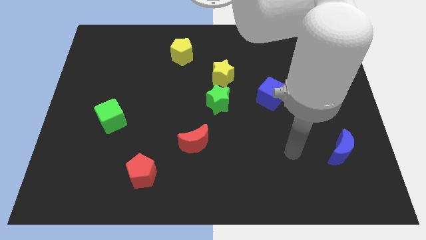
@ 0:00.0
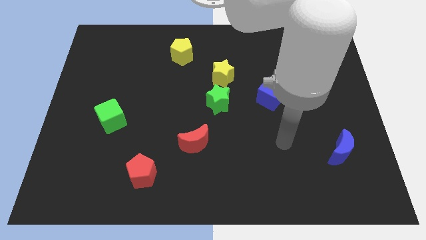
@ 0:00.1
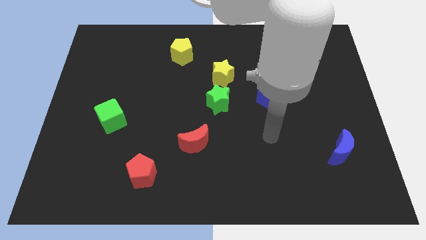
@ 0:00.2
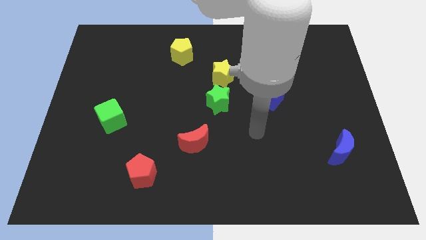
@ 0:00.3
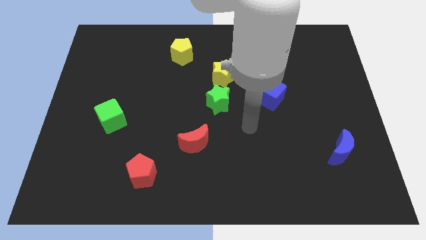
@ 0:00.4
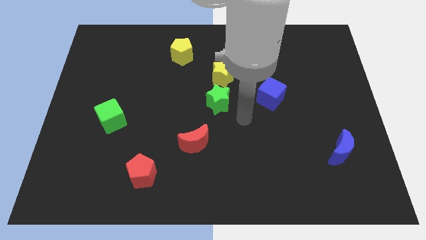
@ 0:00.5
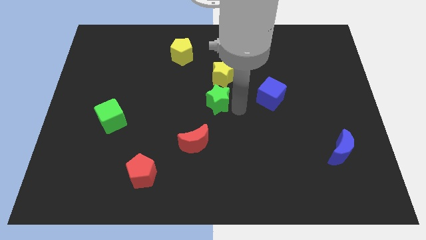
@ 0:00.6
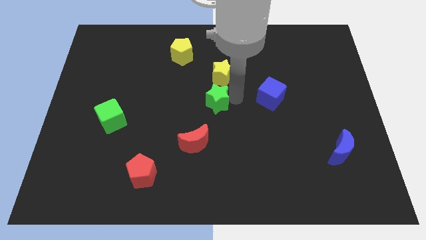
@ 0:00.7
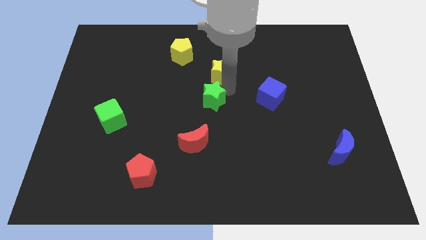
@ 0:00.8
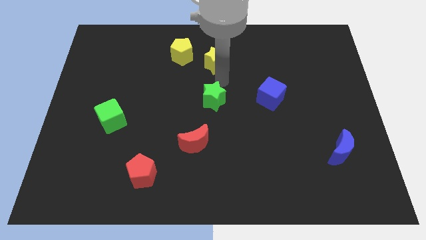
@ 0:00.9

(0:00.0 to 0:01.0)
move the green star away from the yellow star

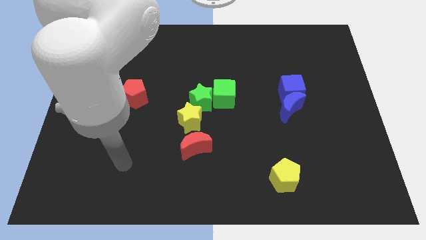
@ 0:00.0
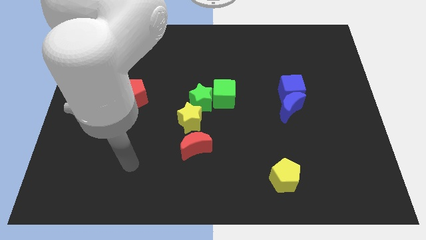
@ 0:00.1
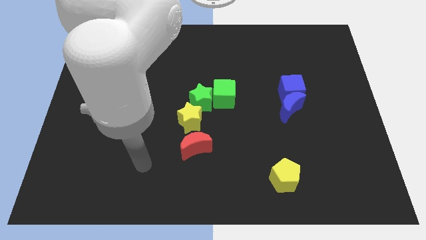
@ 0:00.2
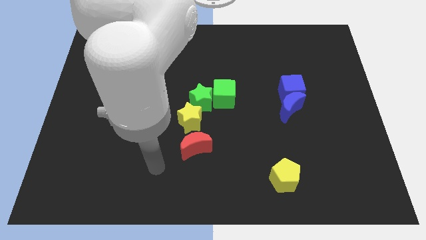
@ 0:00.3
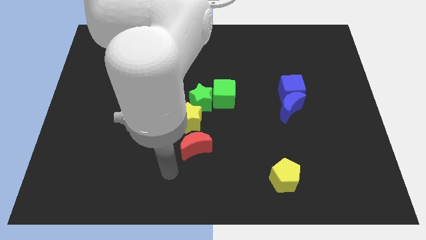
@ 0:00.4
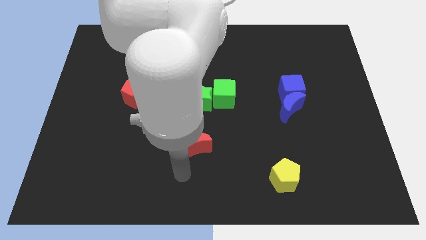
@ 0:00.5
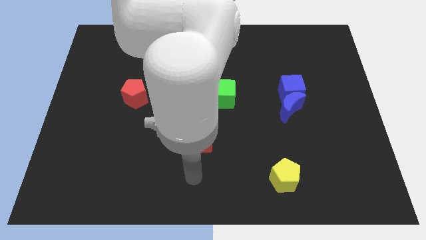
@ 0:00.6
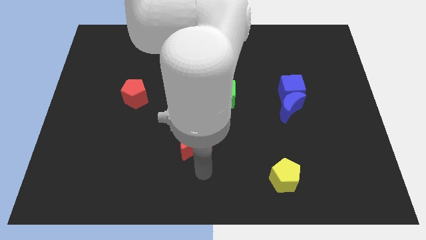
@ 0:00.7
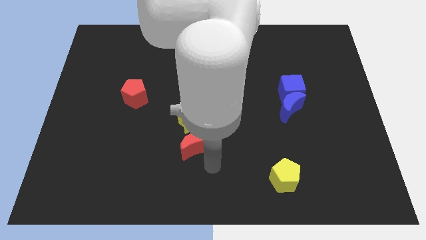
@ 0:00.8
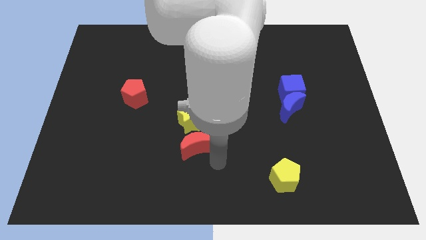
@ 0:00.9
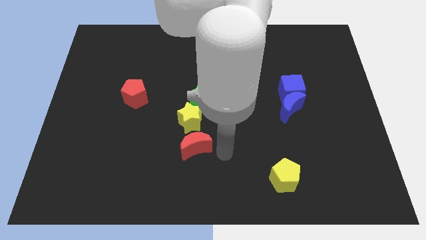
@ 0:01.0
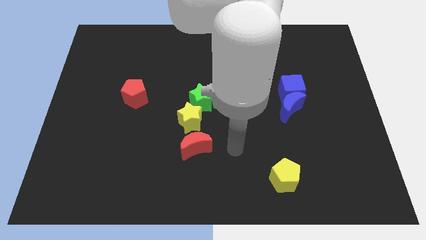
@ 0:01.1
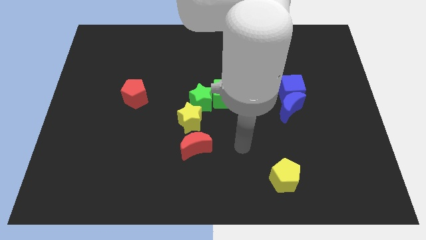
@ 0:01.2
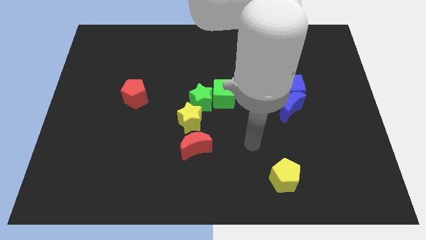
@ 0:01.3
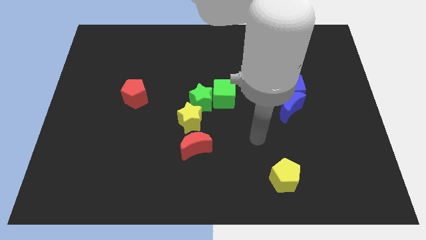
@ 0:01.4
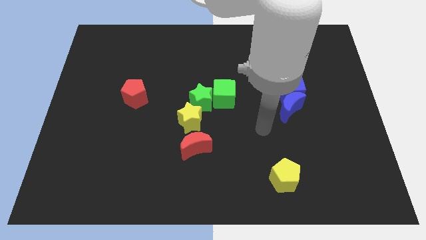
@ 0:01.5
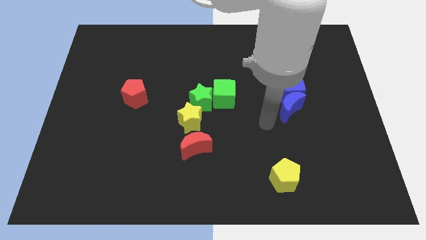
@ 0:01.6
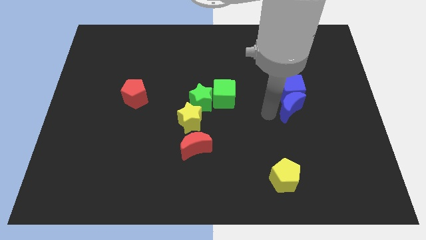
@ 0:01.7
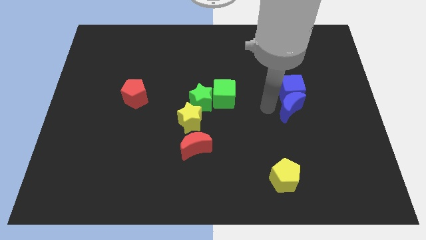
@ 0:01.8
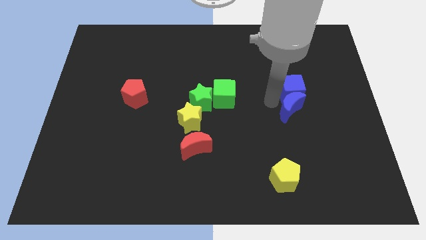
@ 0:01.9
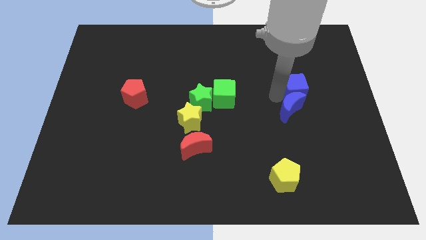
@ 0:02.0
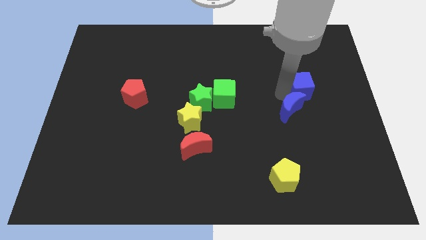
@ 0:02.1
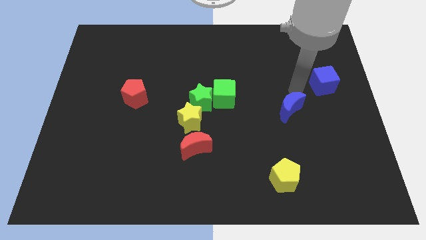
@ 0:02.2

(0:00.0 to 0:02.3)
separate the blue moon from the blue cube

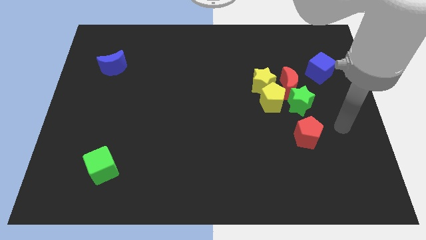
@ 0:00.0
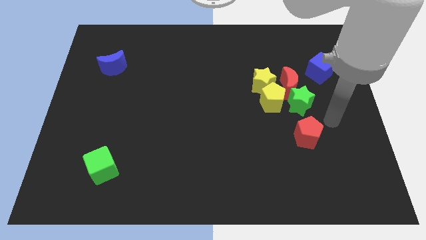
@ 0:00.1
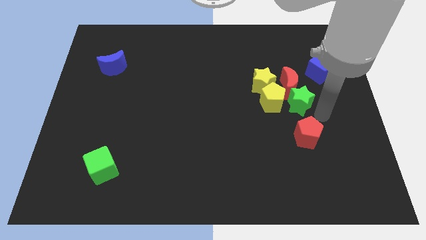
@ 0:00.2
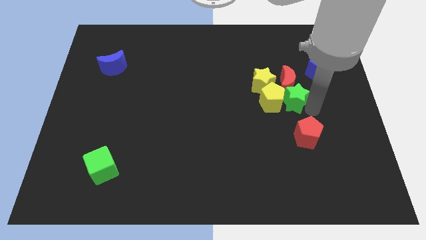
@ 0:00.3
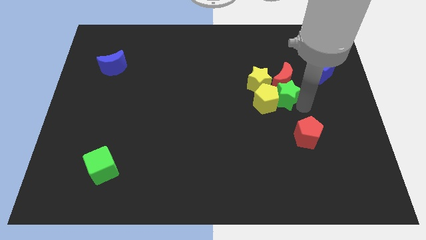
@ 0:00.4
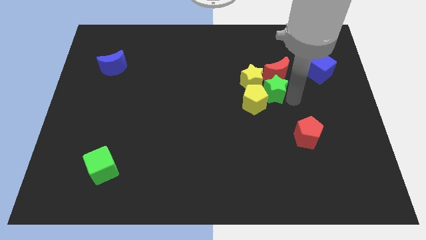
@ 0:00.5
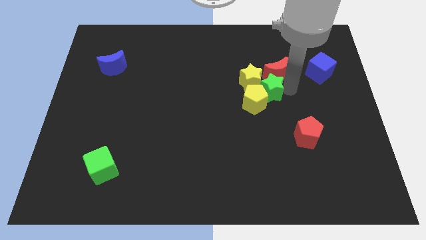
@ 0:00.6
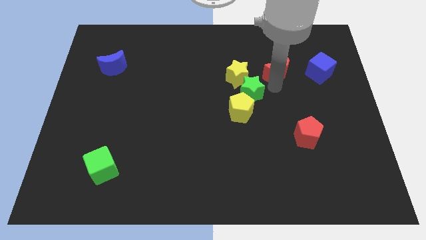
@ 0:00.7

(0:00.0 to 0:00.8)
move the yellow pentagon away from the group of blocks

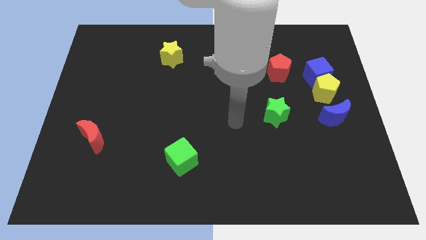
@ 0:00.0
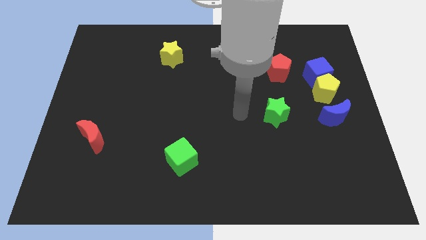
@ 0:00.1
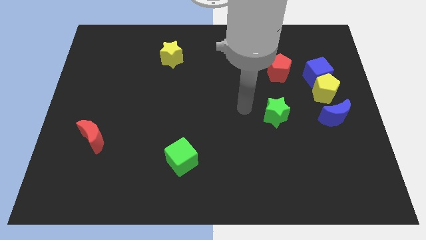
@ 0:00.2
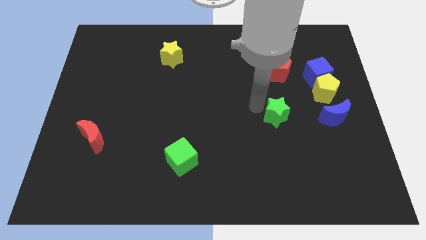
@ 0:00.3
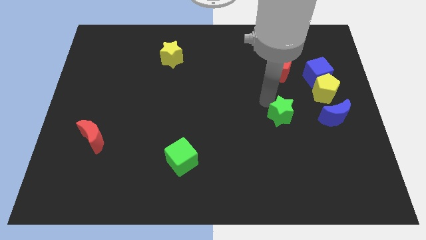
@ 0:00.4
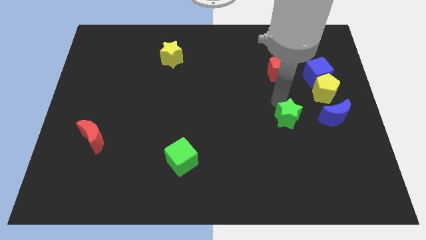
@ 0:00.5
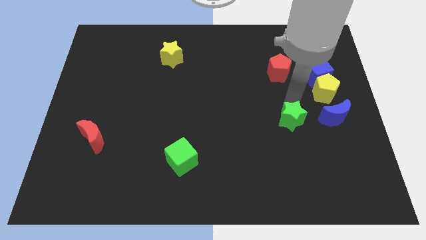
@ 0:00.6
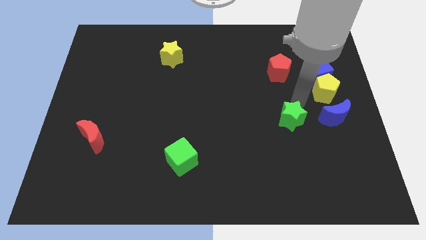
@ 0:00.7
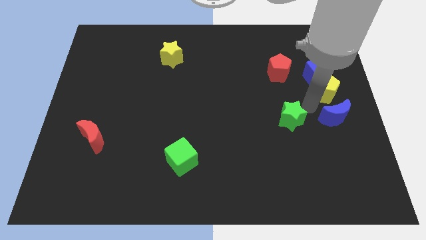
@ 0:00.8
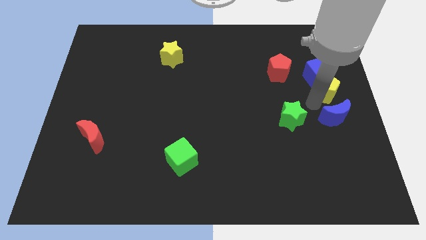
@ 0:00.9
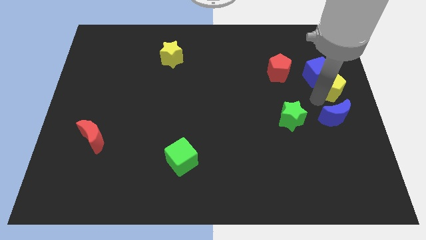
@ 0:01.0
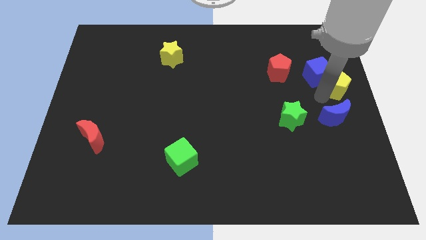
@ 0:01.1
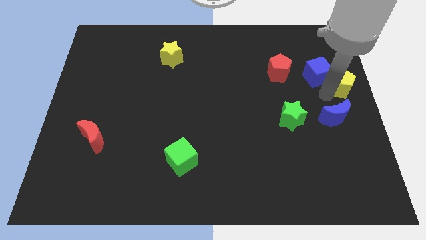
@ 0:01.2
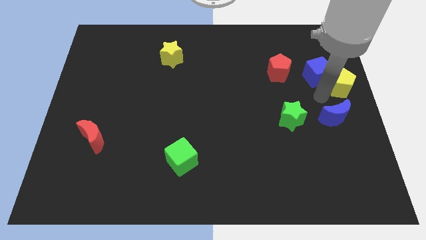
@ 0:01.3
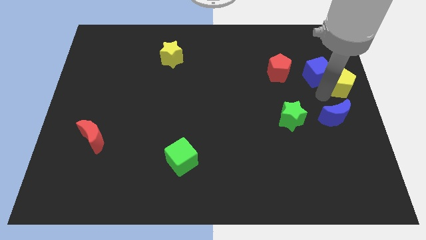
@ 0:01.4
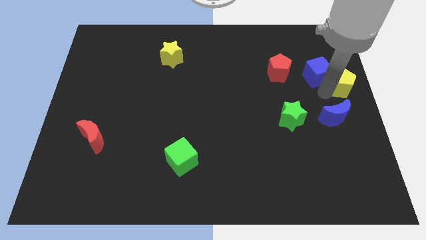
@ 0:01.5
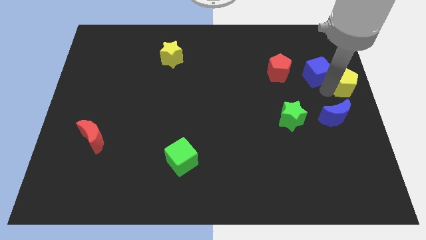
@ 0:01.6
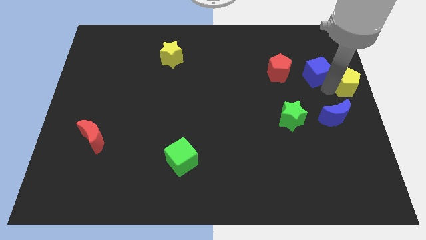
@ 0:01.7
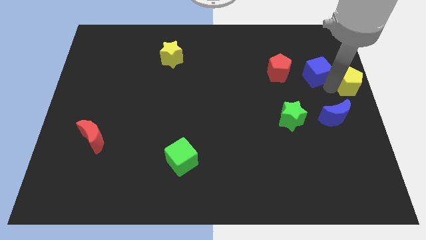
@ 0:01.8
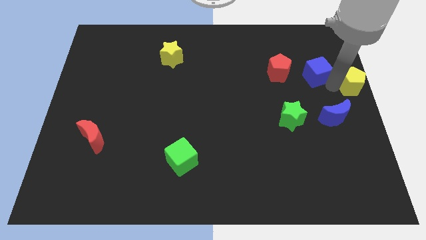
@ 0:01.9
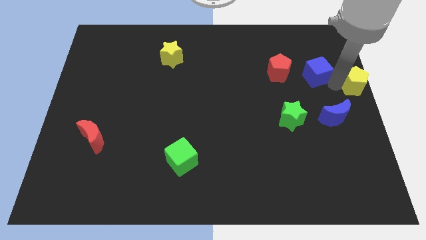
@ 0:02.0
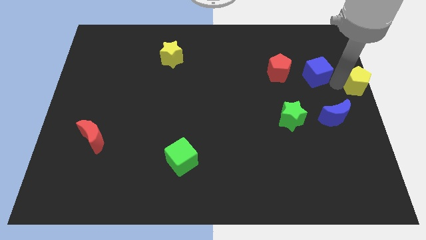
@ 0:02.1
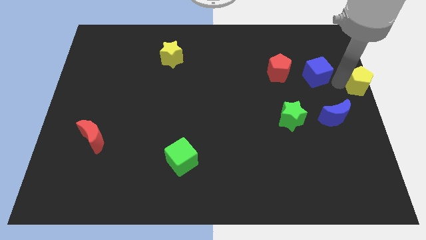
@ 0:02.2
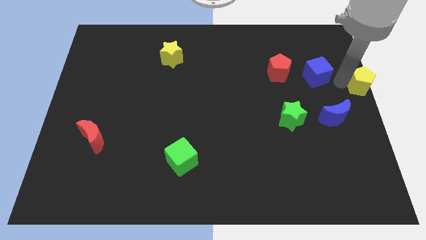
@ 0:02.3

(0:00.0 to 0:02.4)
pull the yellow pentagon apart from the blue cube and blue moon

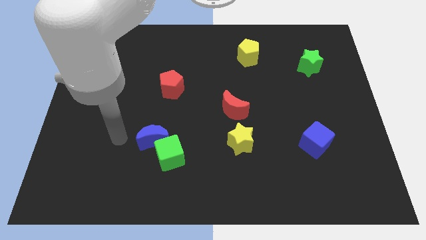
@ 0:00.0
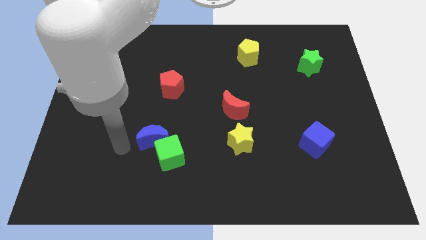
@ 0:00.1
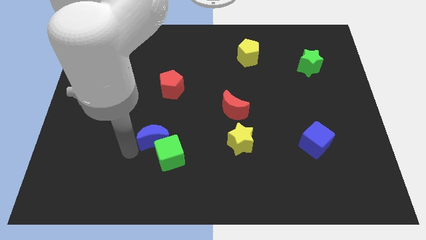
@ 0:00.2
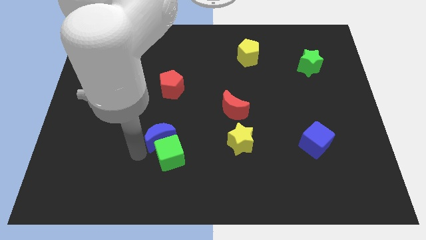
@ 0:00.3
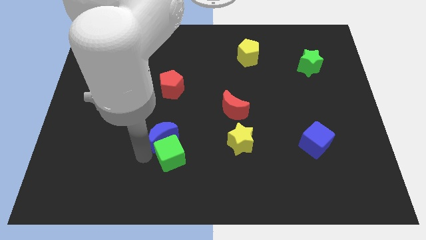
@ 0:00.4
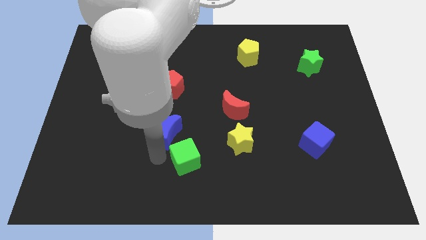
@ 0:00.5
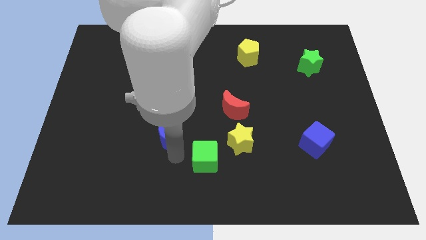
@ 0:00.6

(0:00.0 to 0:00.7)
separate the blue moon from the green cube

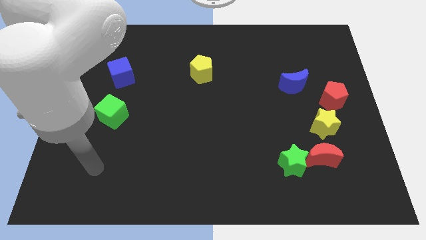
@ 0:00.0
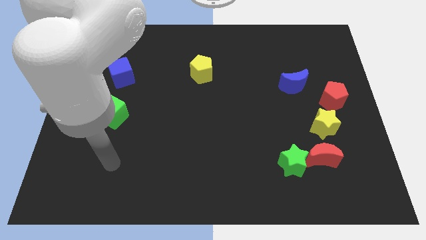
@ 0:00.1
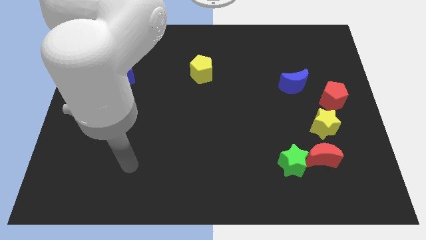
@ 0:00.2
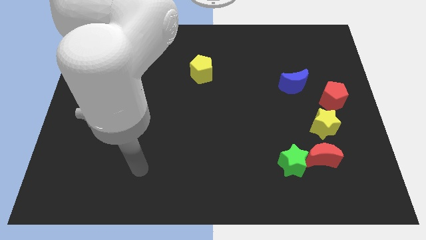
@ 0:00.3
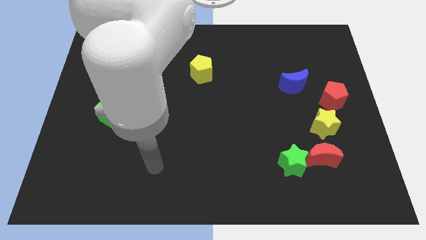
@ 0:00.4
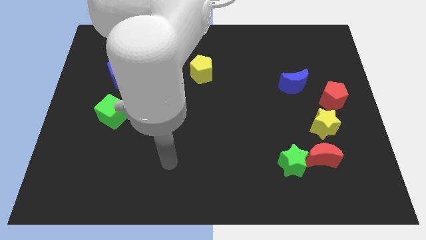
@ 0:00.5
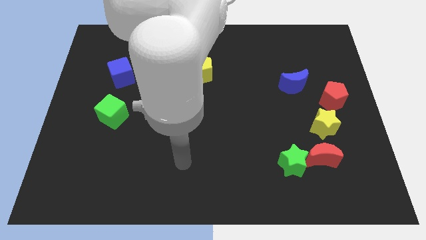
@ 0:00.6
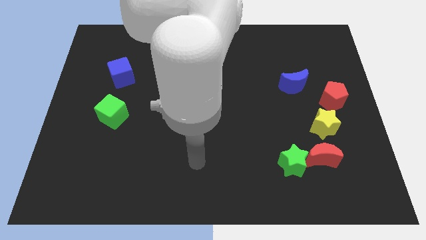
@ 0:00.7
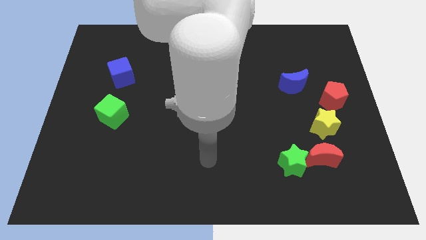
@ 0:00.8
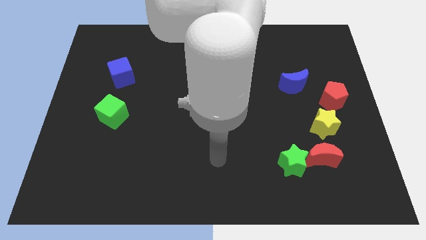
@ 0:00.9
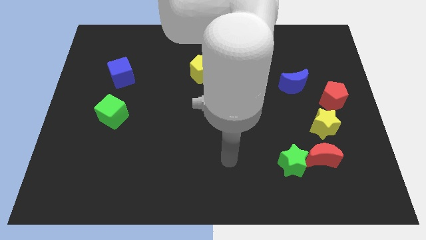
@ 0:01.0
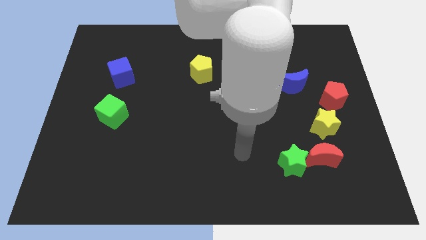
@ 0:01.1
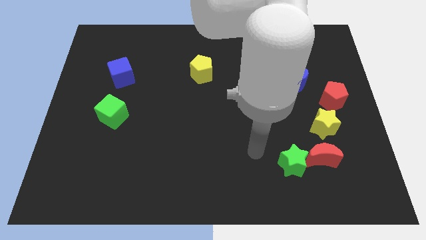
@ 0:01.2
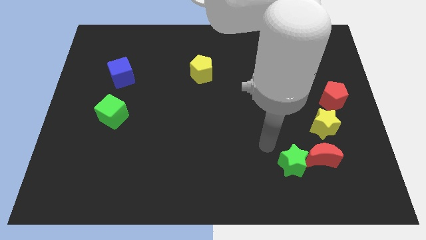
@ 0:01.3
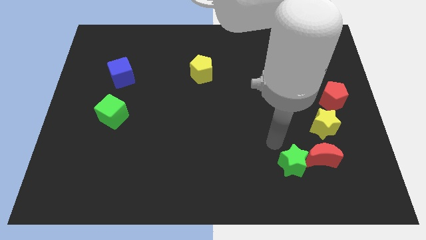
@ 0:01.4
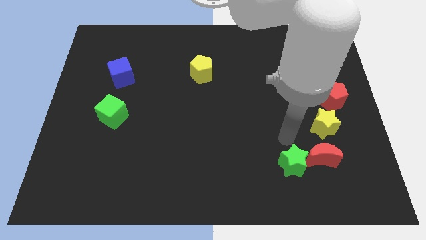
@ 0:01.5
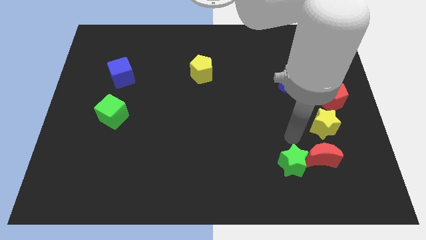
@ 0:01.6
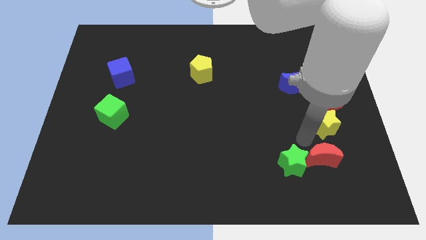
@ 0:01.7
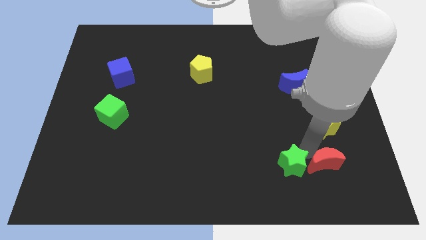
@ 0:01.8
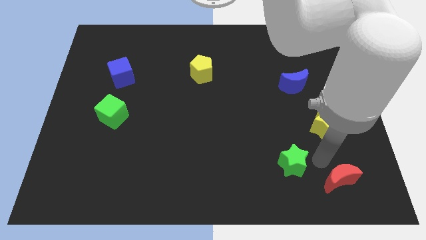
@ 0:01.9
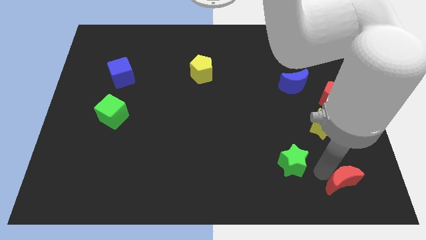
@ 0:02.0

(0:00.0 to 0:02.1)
separate the green star from the red moon
